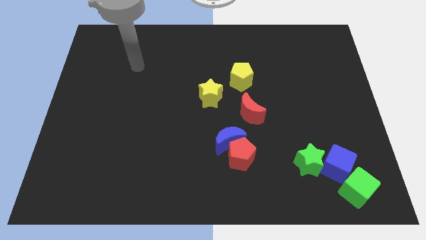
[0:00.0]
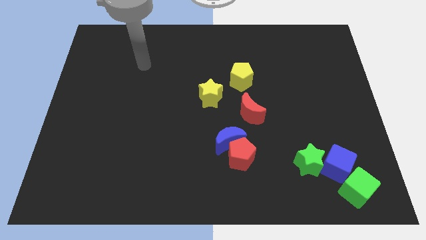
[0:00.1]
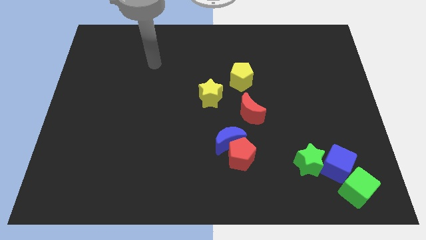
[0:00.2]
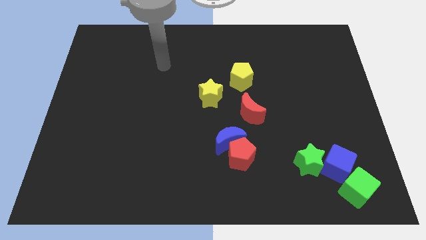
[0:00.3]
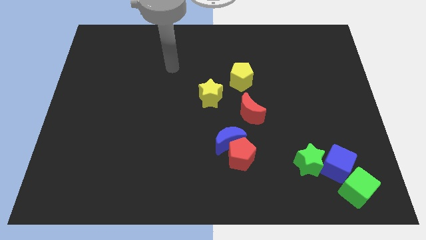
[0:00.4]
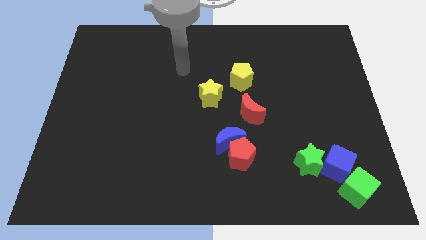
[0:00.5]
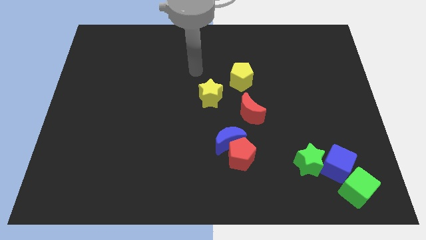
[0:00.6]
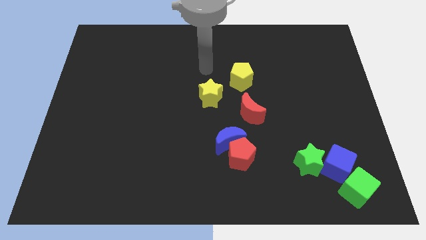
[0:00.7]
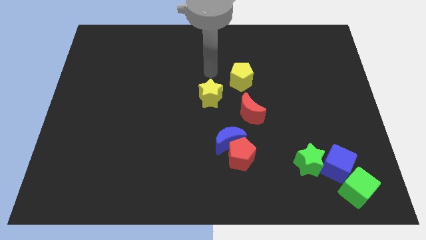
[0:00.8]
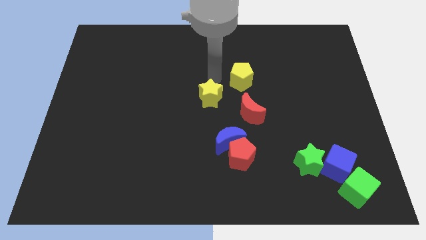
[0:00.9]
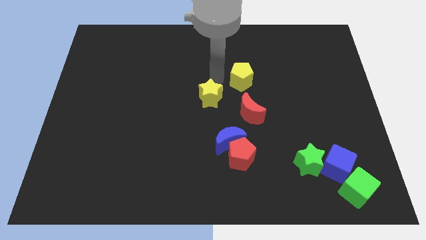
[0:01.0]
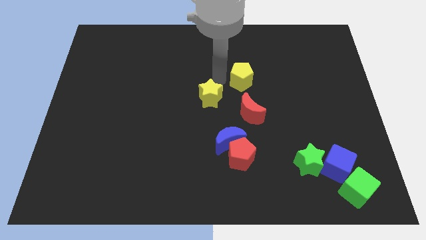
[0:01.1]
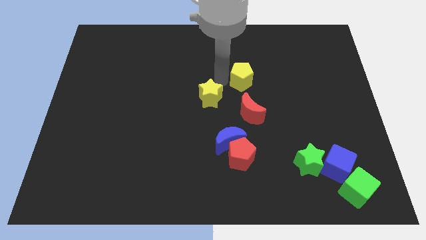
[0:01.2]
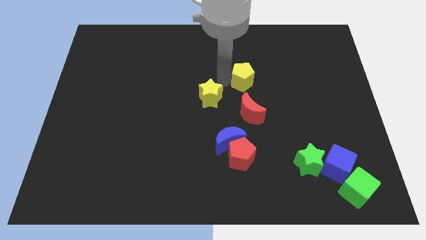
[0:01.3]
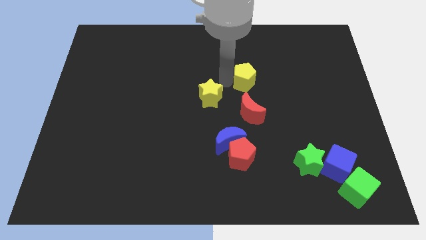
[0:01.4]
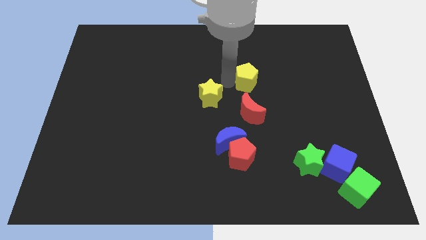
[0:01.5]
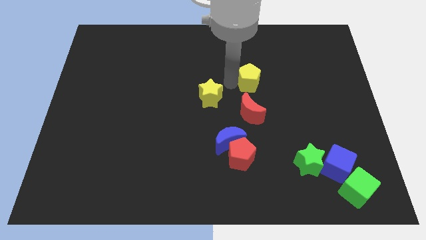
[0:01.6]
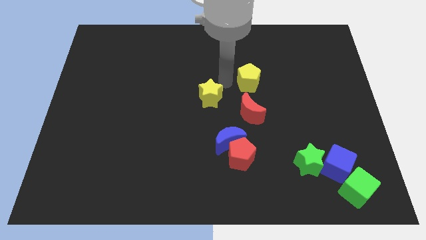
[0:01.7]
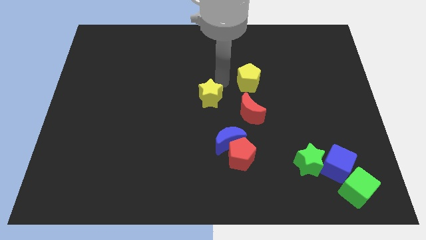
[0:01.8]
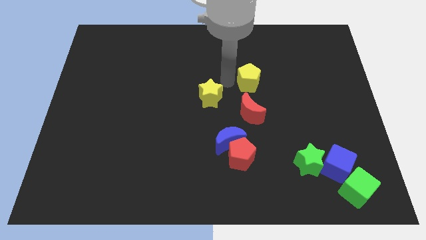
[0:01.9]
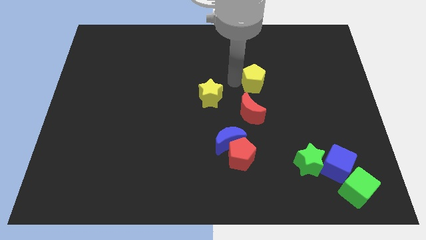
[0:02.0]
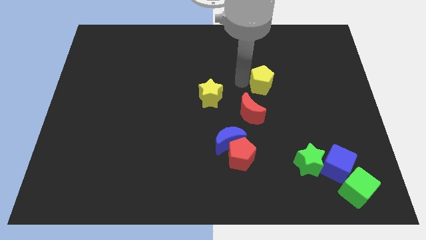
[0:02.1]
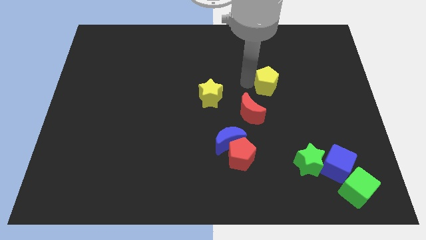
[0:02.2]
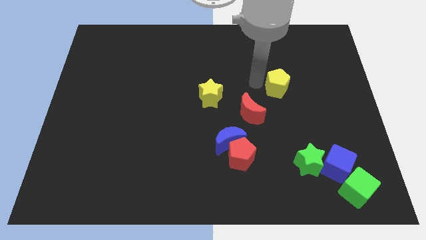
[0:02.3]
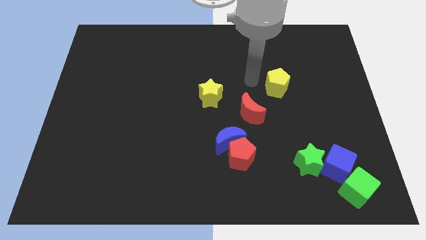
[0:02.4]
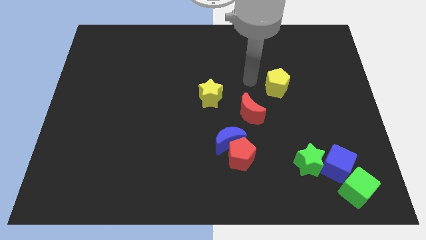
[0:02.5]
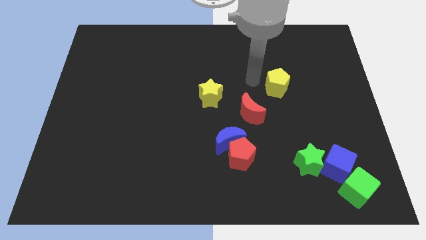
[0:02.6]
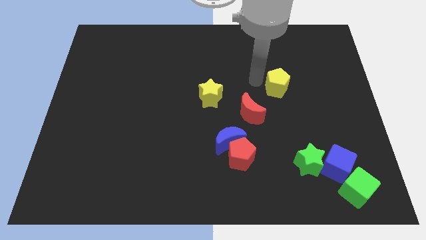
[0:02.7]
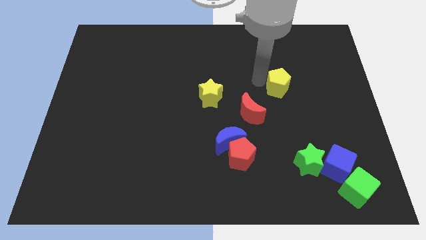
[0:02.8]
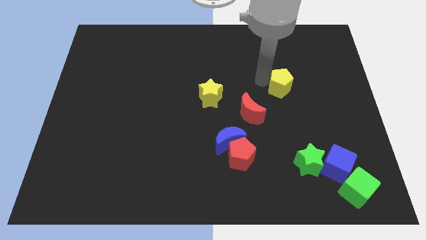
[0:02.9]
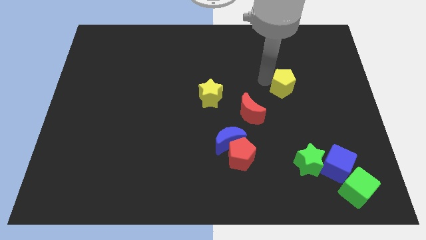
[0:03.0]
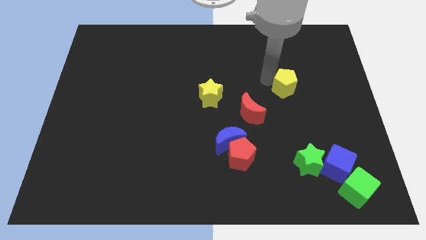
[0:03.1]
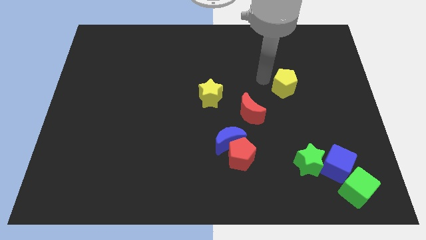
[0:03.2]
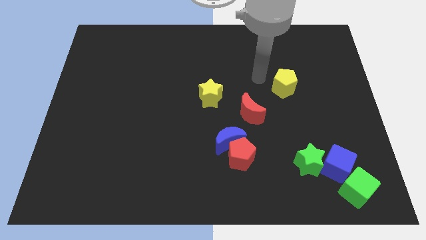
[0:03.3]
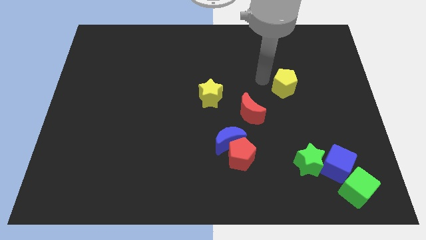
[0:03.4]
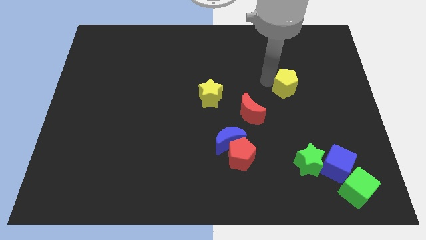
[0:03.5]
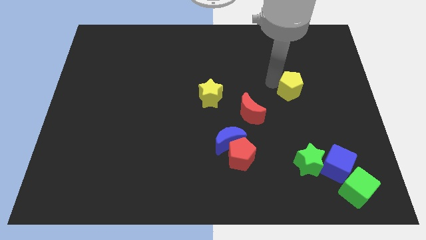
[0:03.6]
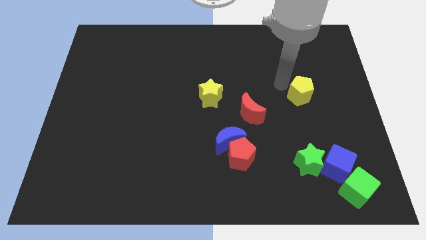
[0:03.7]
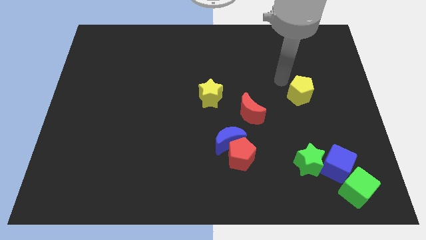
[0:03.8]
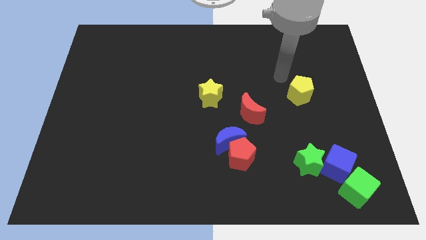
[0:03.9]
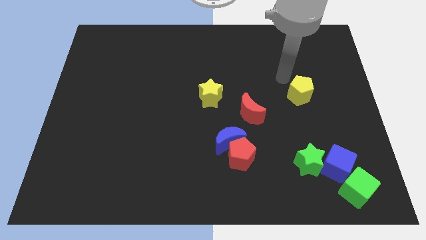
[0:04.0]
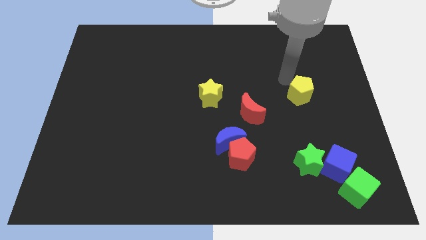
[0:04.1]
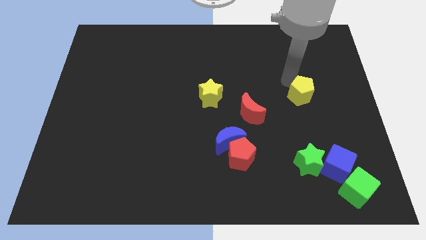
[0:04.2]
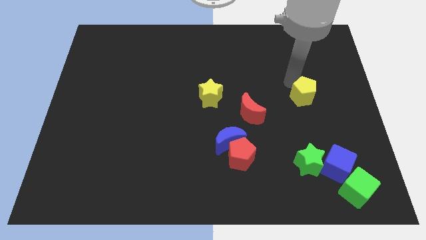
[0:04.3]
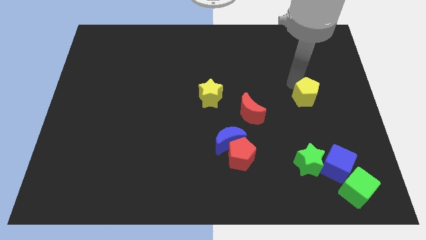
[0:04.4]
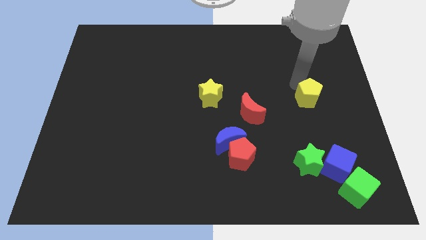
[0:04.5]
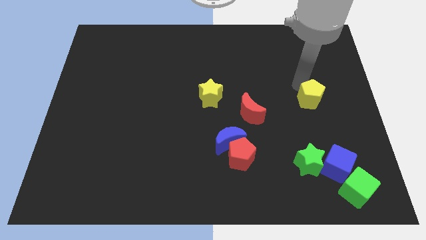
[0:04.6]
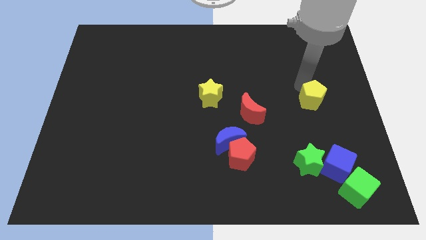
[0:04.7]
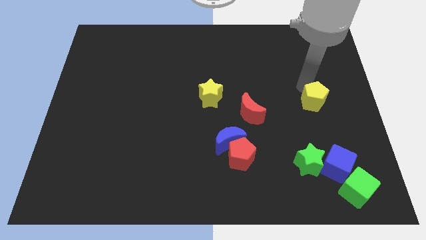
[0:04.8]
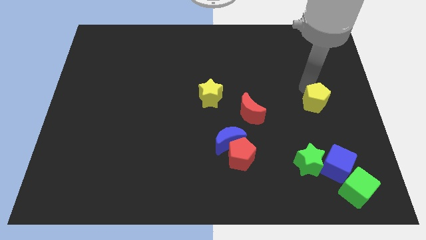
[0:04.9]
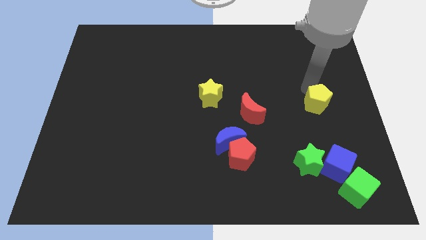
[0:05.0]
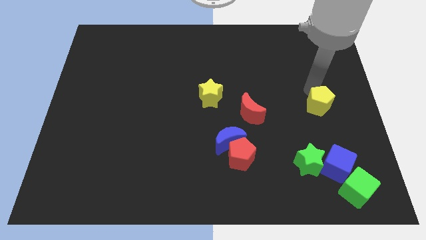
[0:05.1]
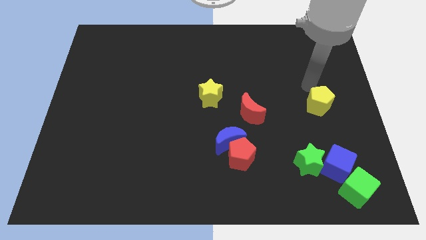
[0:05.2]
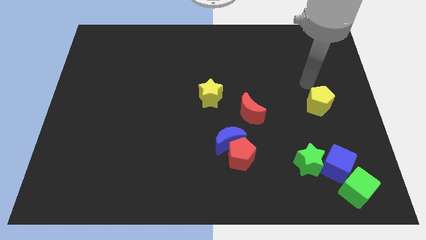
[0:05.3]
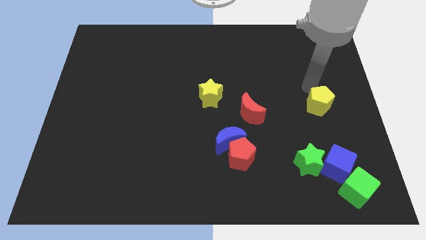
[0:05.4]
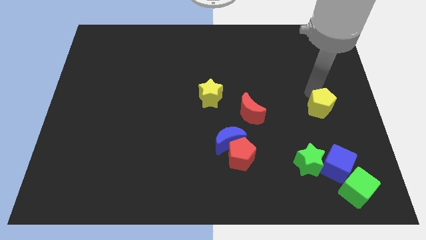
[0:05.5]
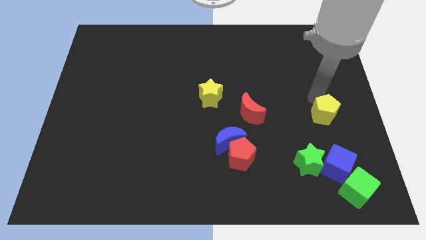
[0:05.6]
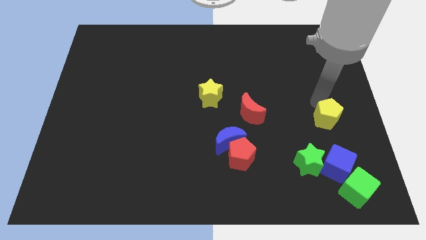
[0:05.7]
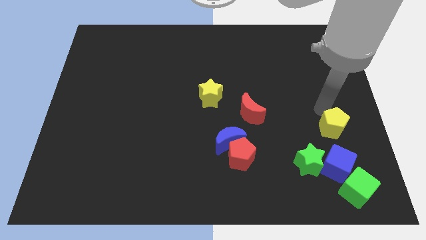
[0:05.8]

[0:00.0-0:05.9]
put the yellow pentagon to the top of the green cube

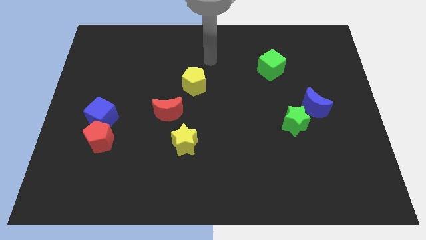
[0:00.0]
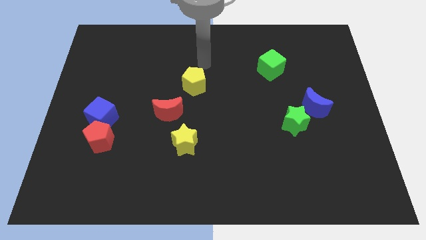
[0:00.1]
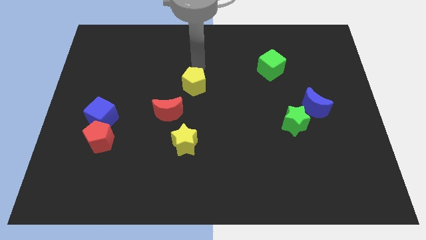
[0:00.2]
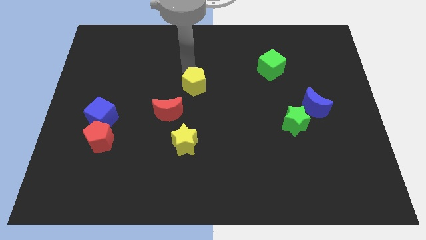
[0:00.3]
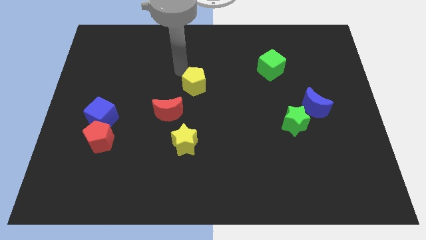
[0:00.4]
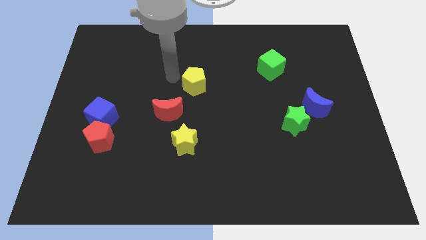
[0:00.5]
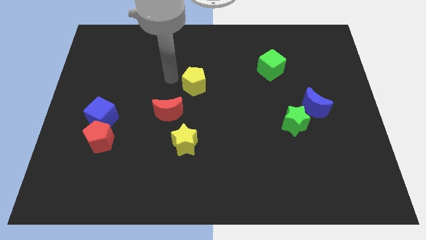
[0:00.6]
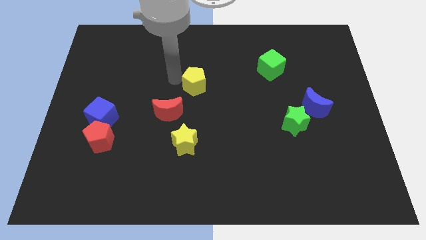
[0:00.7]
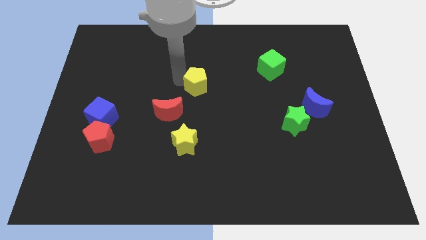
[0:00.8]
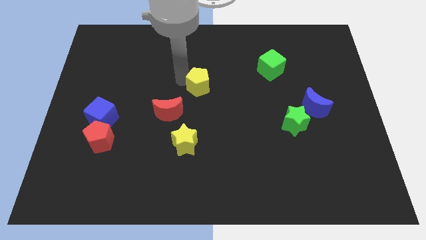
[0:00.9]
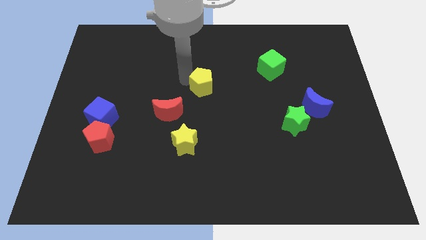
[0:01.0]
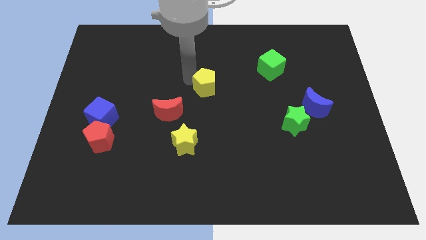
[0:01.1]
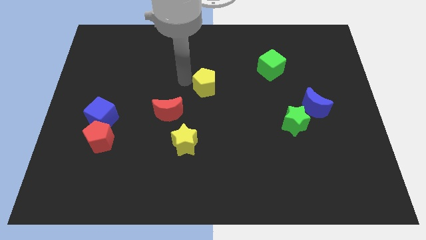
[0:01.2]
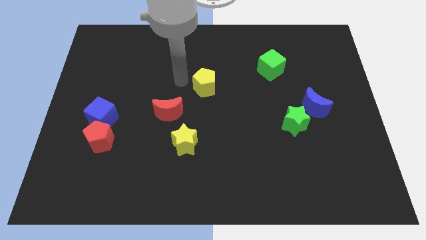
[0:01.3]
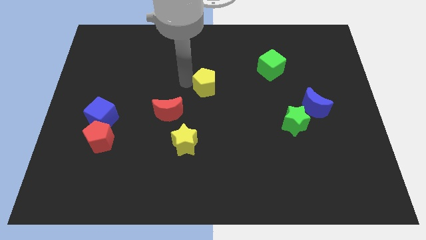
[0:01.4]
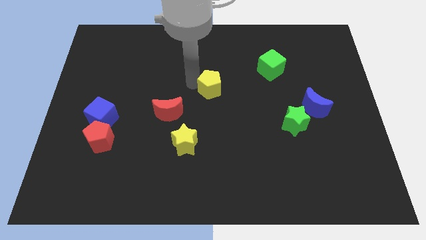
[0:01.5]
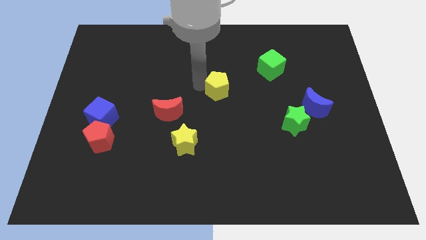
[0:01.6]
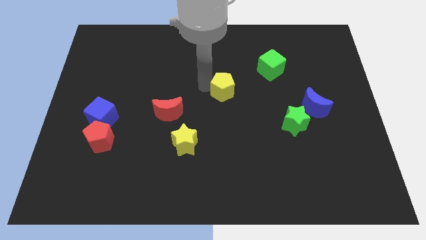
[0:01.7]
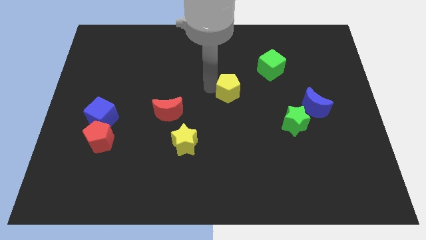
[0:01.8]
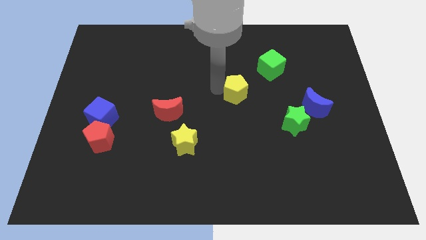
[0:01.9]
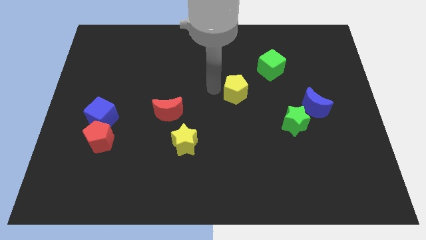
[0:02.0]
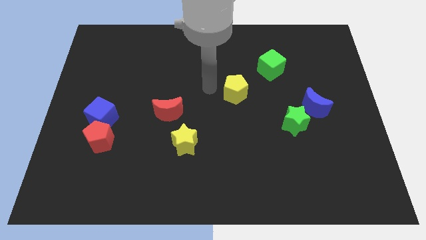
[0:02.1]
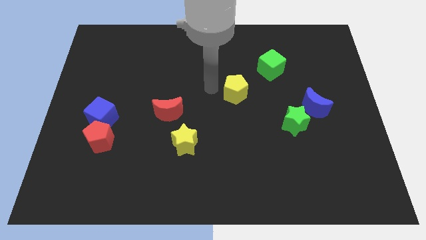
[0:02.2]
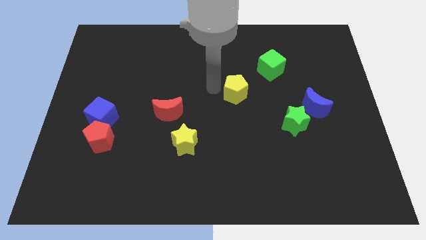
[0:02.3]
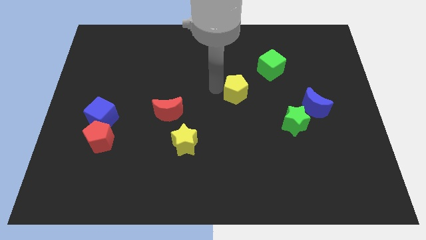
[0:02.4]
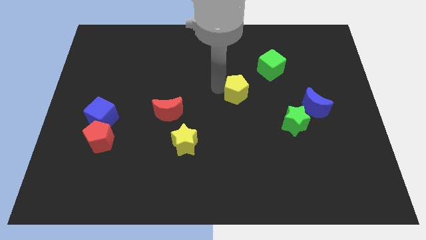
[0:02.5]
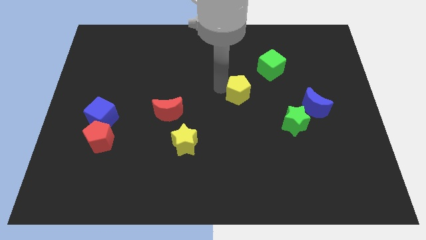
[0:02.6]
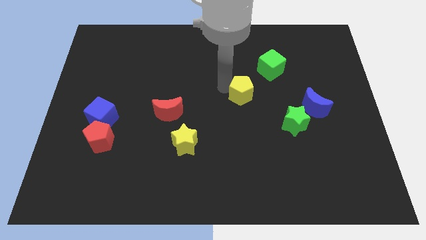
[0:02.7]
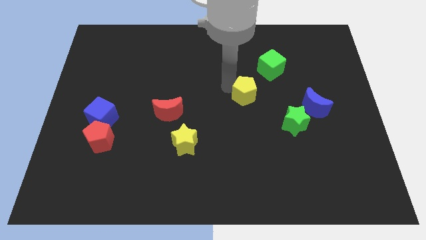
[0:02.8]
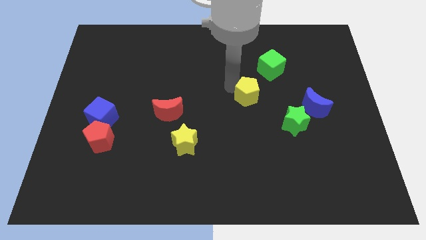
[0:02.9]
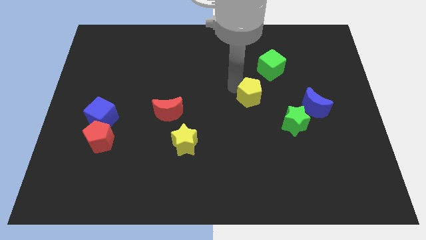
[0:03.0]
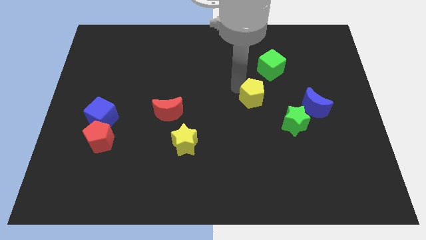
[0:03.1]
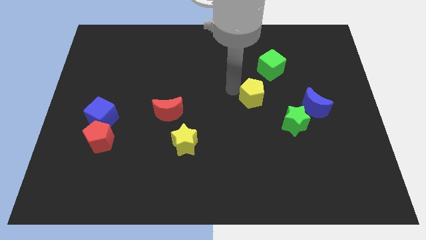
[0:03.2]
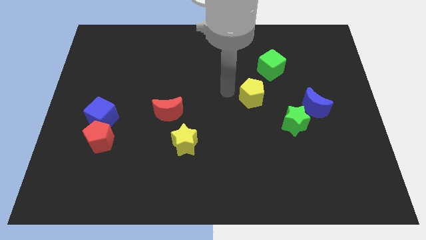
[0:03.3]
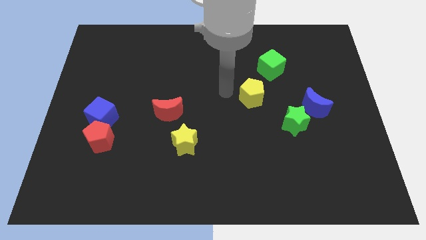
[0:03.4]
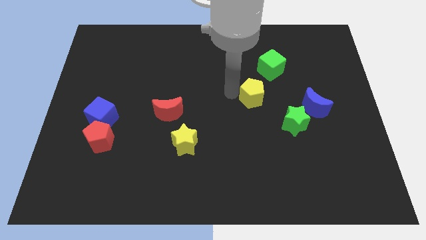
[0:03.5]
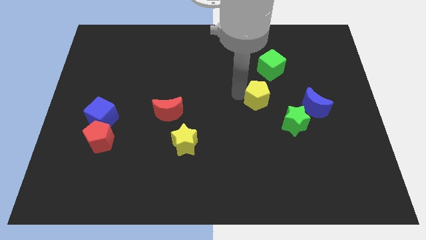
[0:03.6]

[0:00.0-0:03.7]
put the yellow pentagon to the bottom side of the green cube
